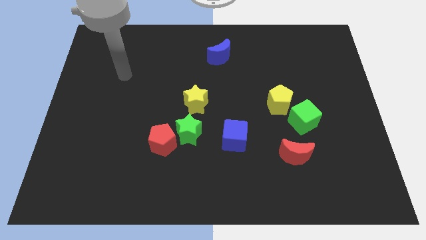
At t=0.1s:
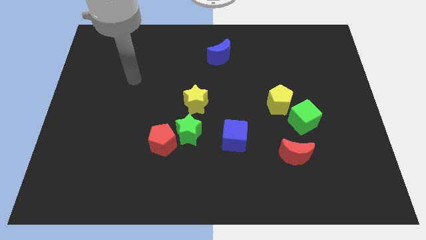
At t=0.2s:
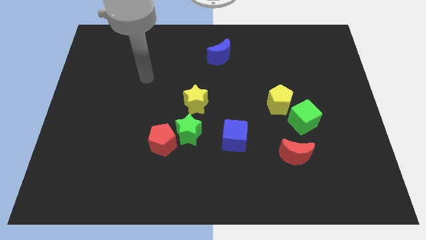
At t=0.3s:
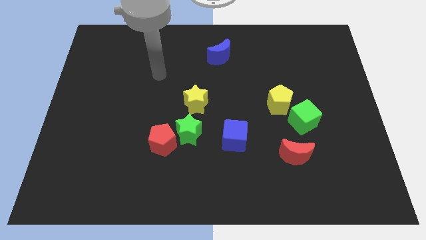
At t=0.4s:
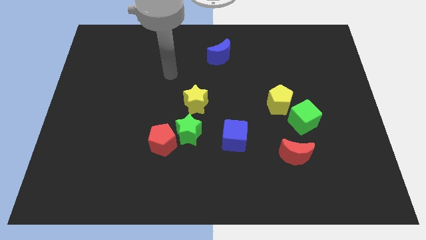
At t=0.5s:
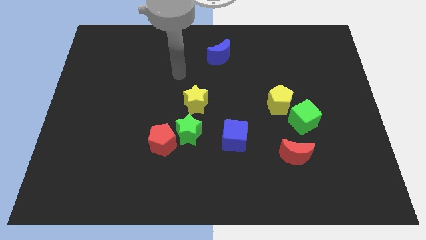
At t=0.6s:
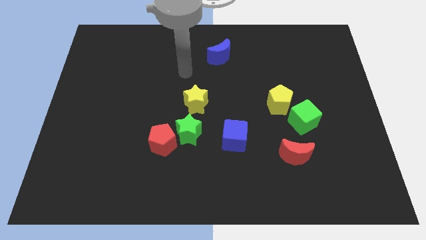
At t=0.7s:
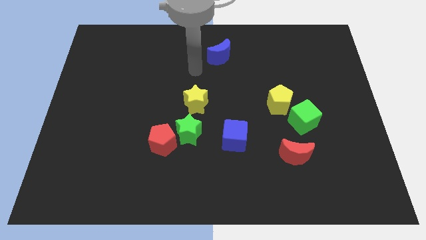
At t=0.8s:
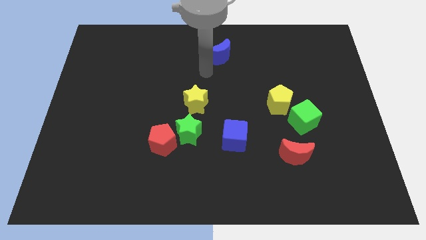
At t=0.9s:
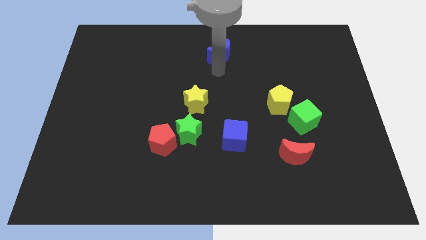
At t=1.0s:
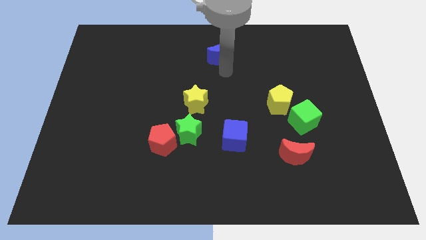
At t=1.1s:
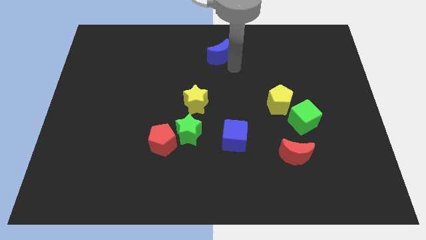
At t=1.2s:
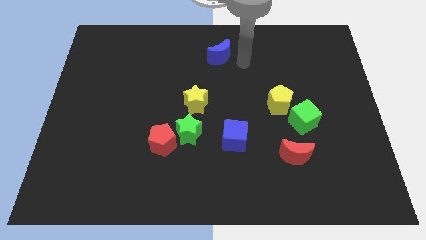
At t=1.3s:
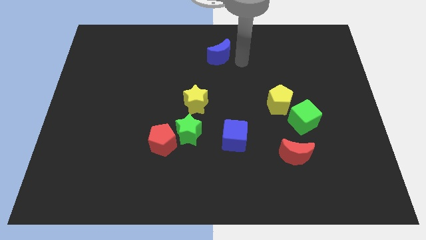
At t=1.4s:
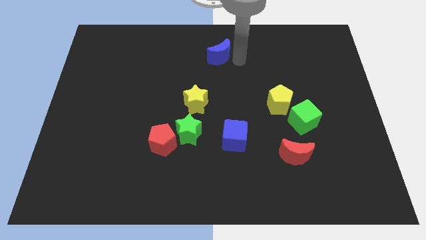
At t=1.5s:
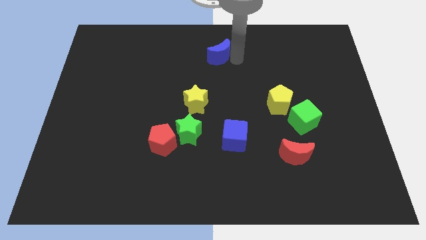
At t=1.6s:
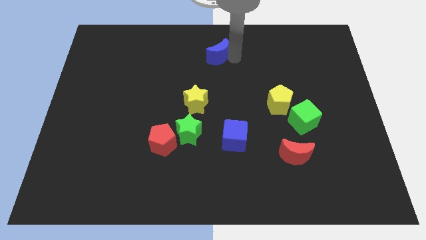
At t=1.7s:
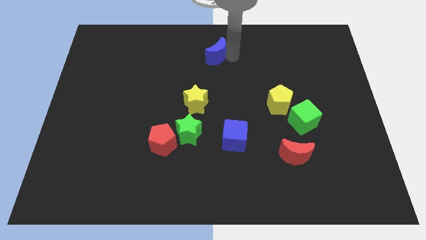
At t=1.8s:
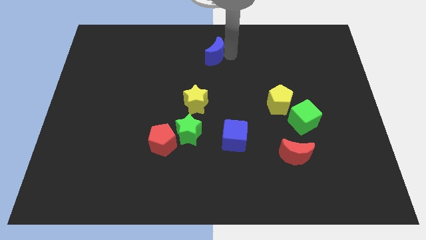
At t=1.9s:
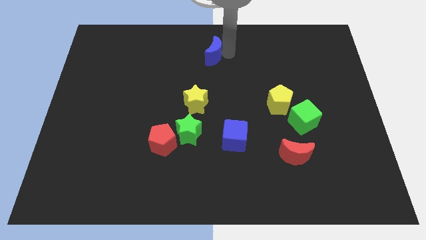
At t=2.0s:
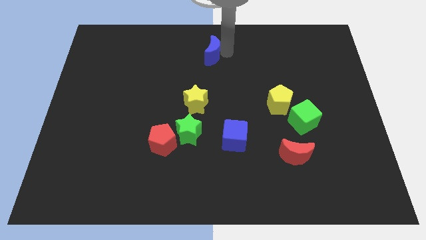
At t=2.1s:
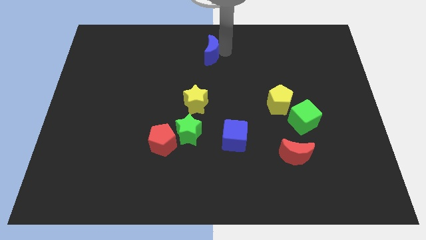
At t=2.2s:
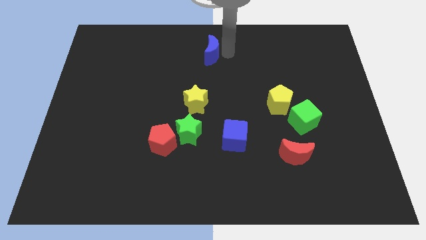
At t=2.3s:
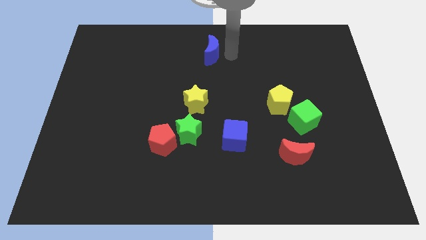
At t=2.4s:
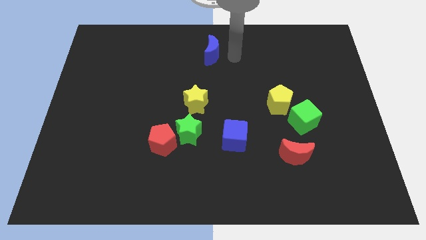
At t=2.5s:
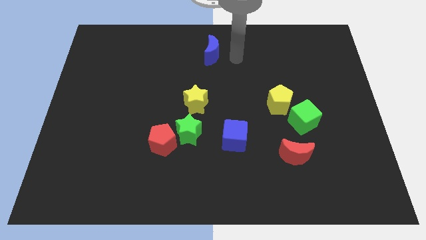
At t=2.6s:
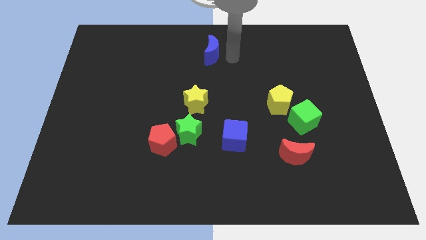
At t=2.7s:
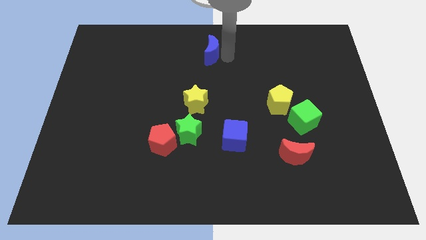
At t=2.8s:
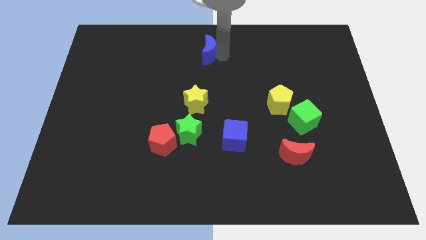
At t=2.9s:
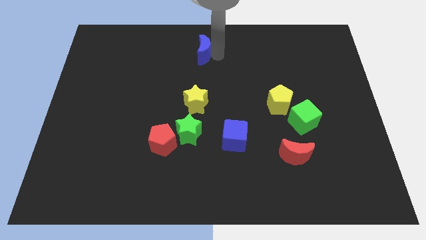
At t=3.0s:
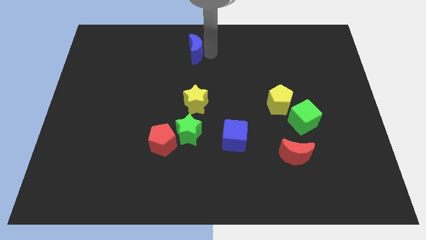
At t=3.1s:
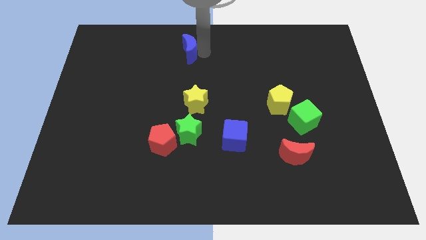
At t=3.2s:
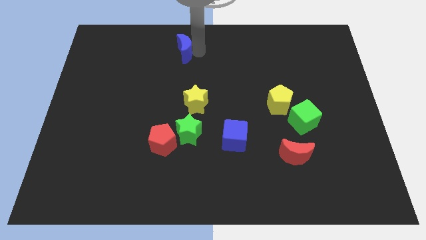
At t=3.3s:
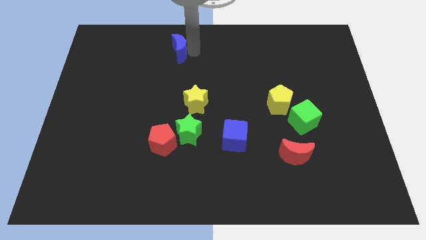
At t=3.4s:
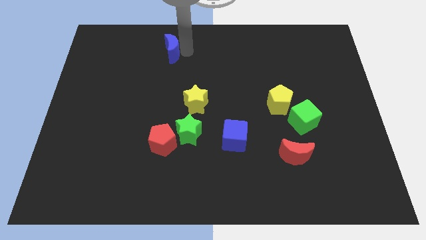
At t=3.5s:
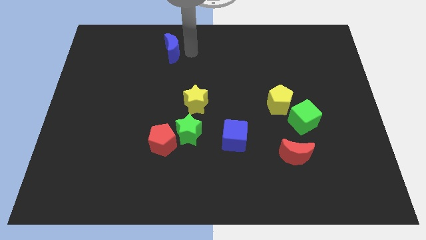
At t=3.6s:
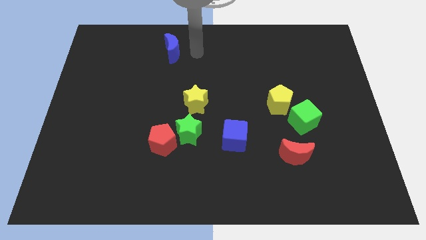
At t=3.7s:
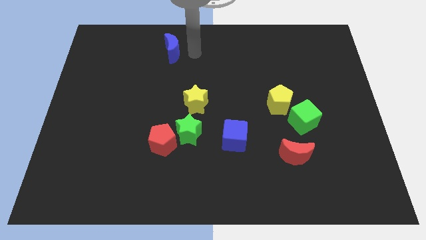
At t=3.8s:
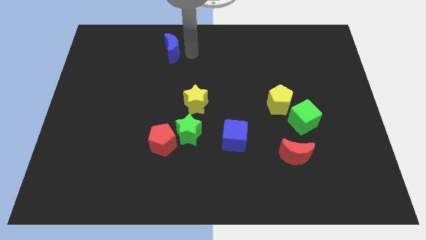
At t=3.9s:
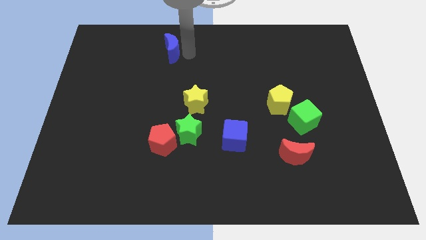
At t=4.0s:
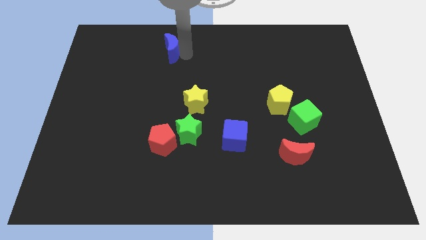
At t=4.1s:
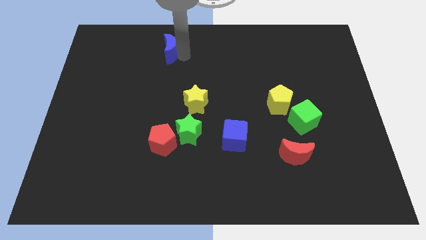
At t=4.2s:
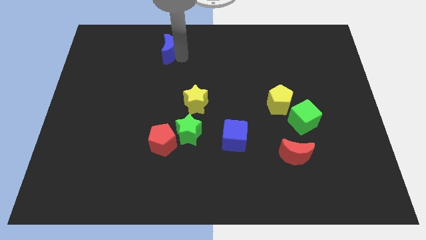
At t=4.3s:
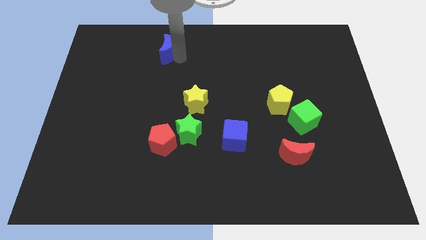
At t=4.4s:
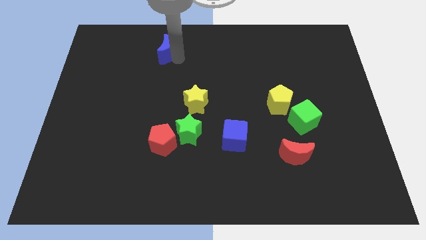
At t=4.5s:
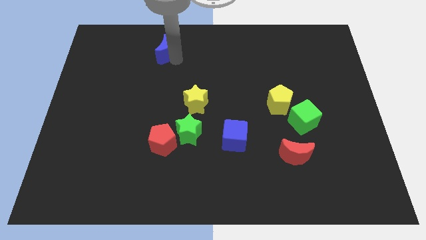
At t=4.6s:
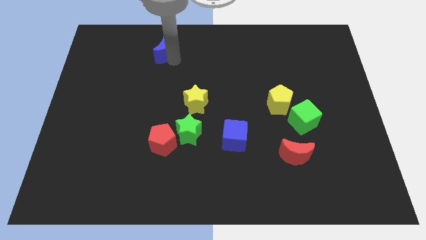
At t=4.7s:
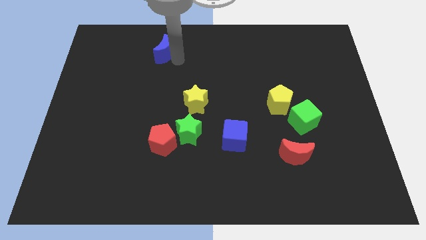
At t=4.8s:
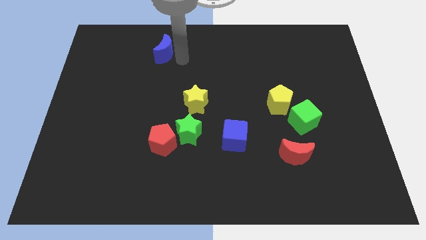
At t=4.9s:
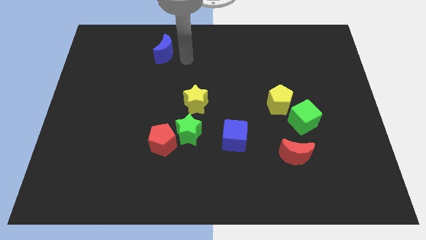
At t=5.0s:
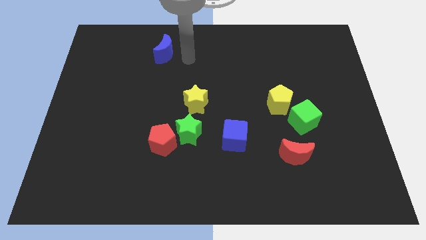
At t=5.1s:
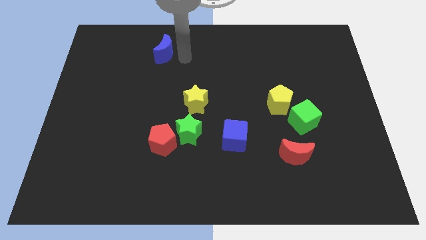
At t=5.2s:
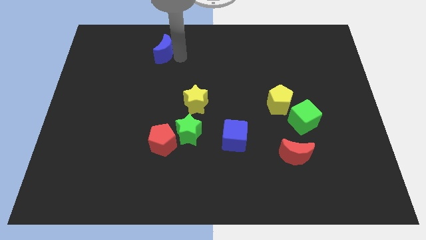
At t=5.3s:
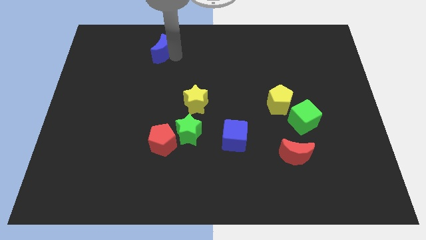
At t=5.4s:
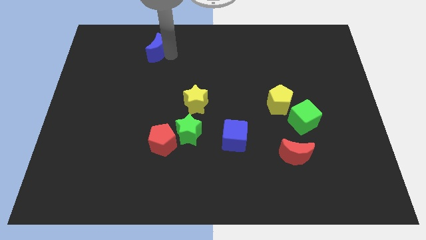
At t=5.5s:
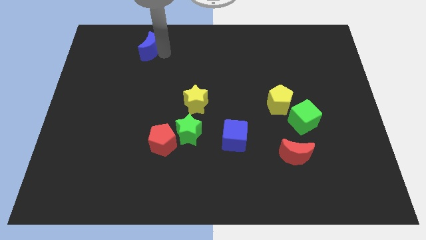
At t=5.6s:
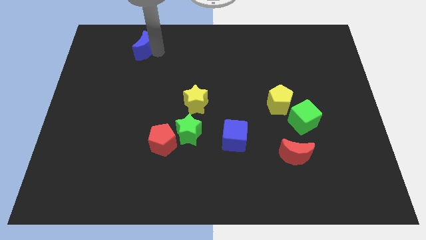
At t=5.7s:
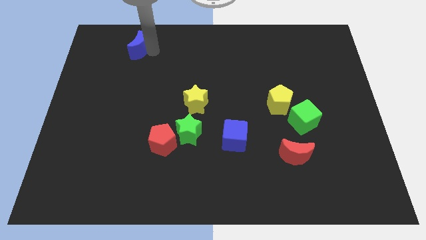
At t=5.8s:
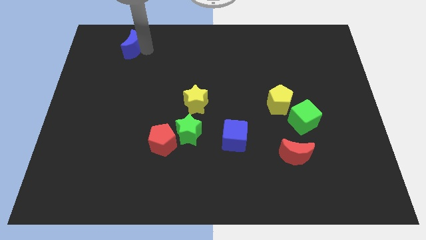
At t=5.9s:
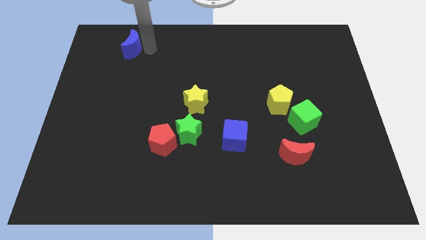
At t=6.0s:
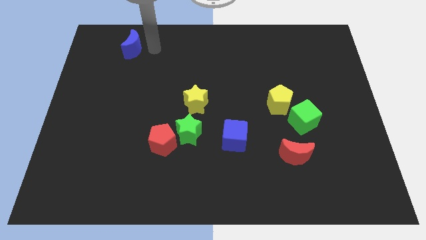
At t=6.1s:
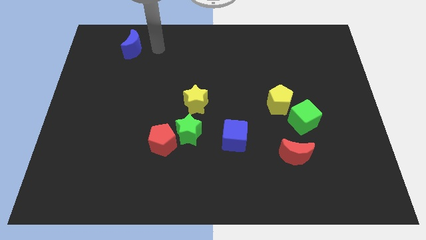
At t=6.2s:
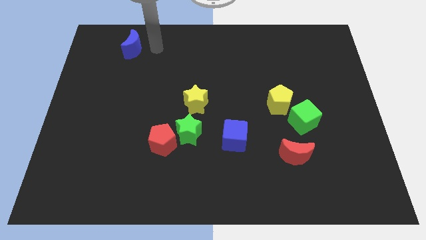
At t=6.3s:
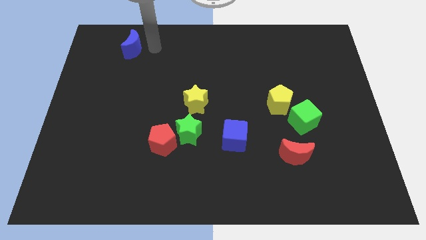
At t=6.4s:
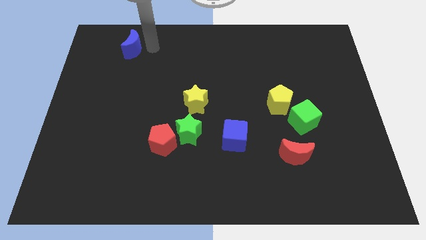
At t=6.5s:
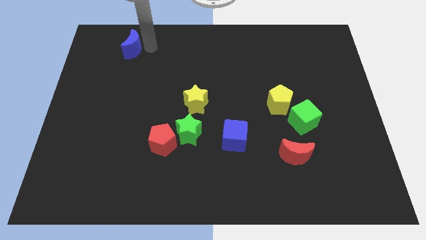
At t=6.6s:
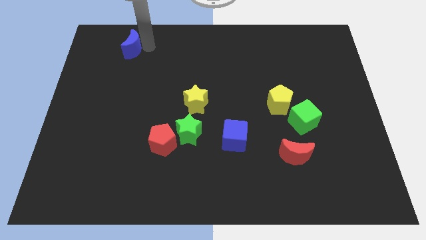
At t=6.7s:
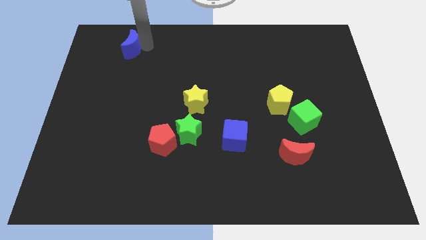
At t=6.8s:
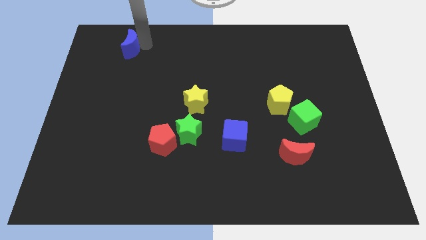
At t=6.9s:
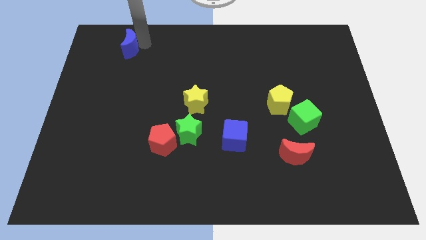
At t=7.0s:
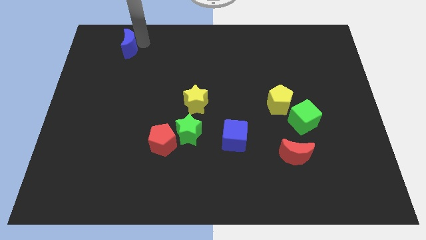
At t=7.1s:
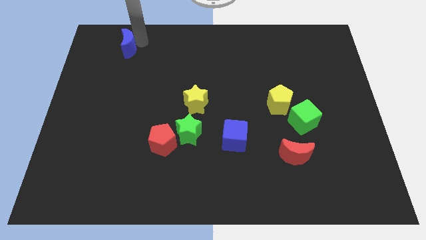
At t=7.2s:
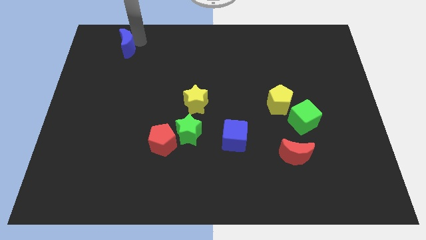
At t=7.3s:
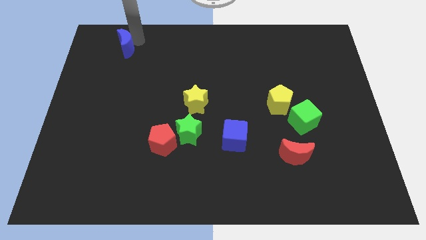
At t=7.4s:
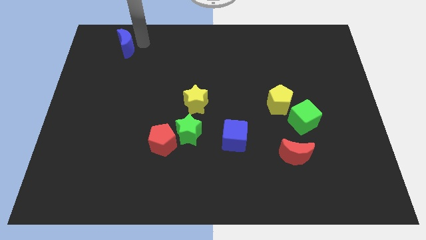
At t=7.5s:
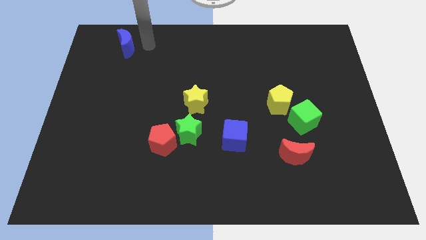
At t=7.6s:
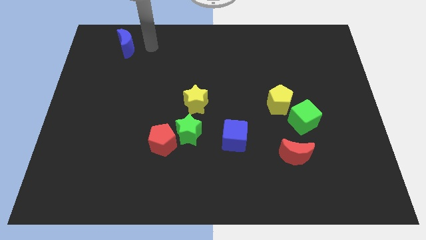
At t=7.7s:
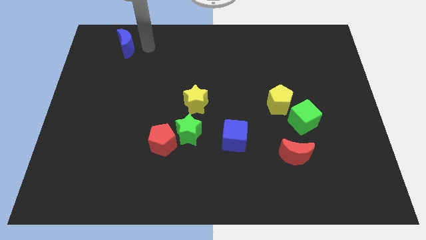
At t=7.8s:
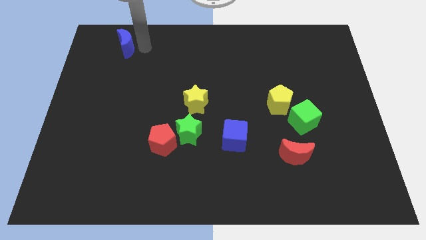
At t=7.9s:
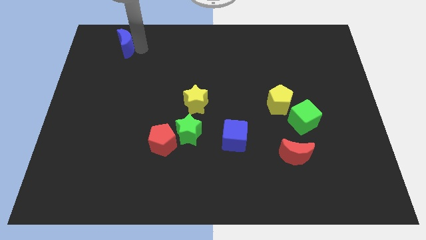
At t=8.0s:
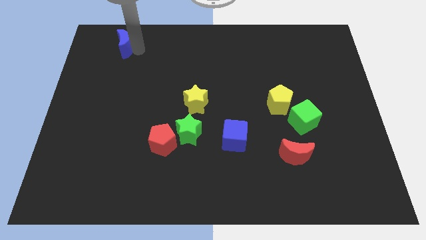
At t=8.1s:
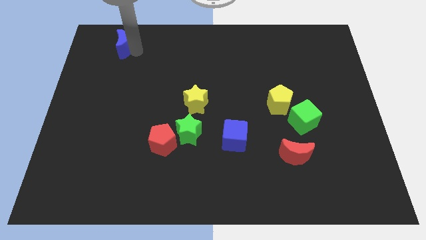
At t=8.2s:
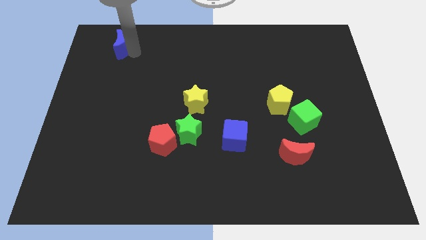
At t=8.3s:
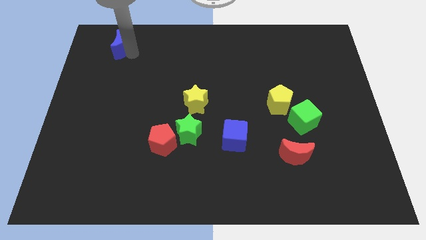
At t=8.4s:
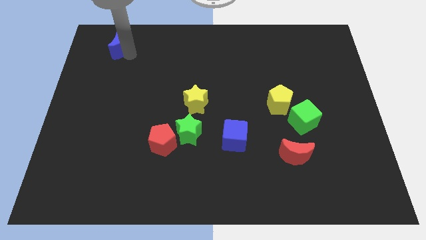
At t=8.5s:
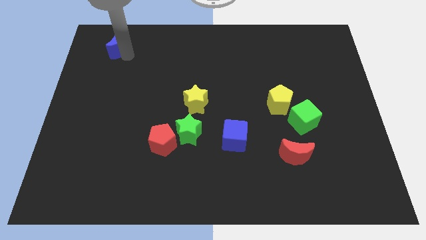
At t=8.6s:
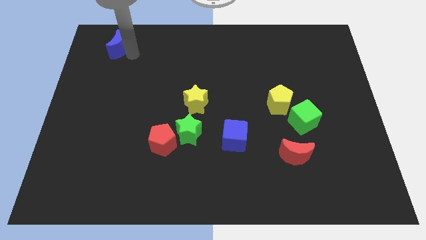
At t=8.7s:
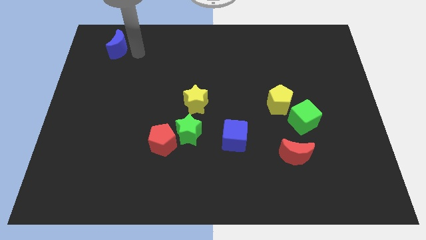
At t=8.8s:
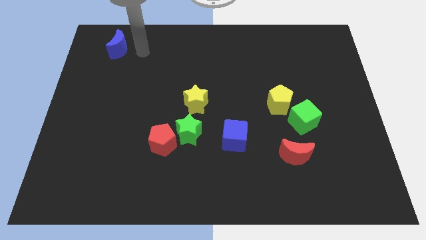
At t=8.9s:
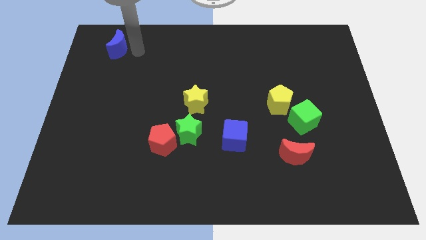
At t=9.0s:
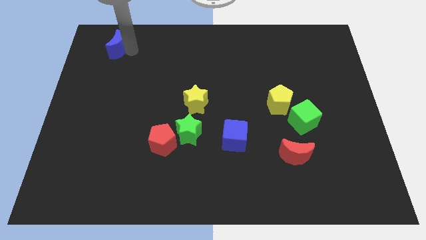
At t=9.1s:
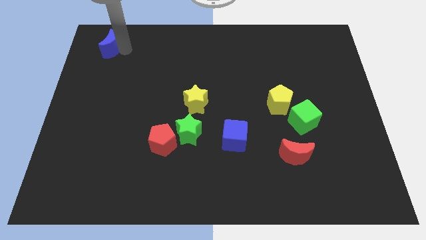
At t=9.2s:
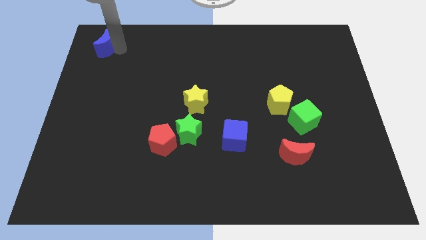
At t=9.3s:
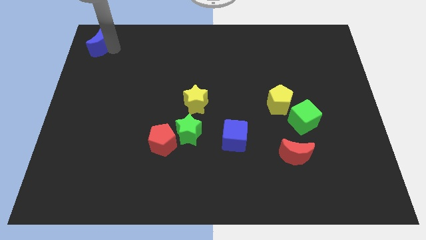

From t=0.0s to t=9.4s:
slide the blue moon to the top left corner
